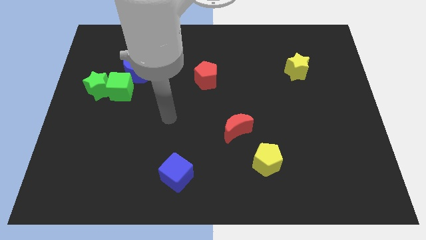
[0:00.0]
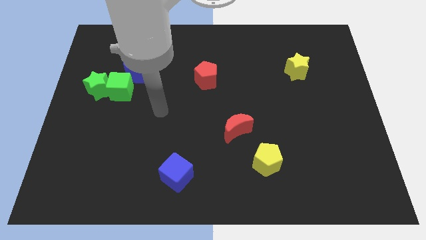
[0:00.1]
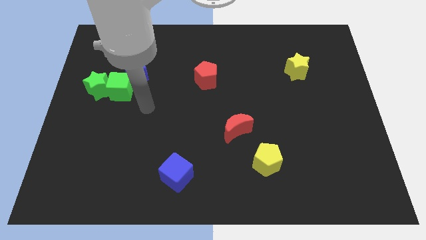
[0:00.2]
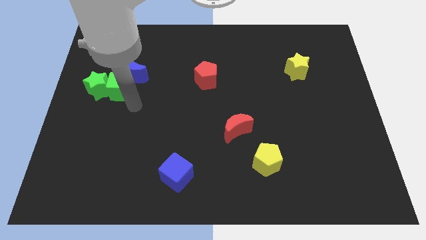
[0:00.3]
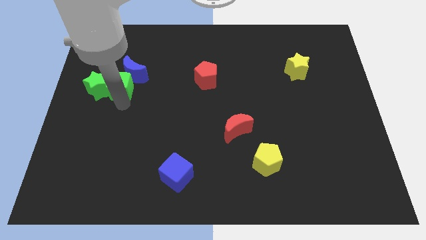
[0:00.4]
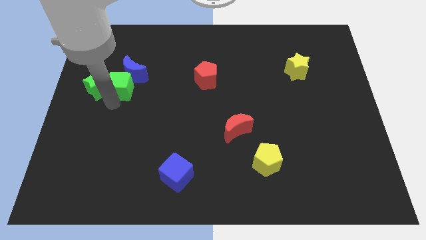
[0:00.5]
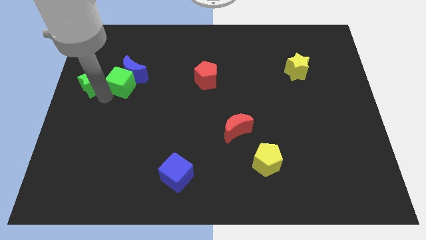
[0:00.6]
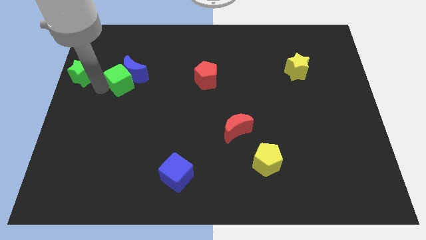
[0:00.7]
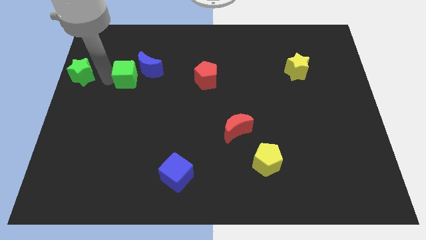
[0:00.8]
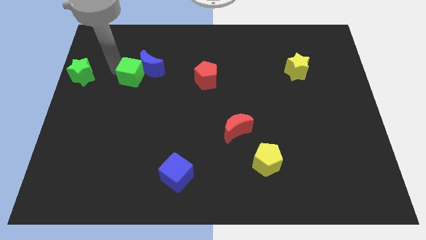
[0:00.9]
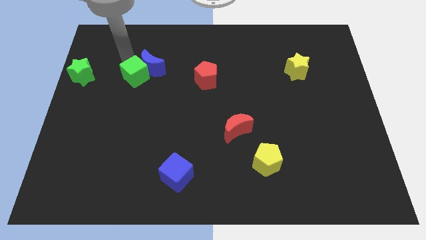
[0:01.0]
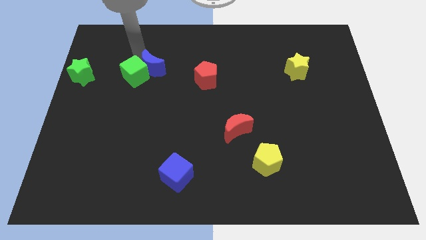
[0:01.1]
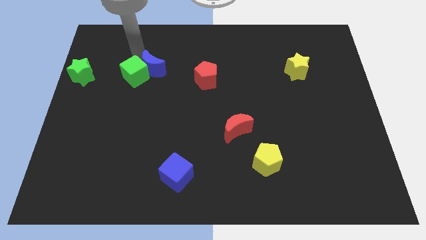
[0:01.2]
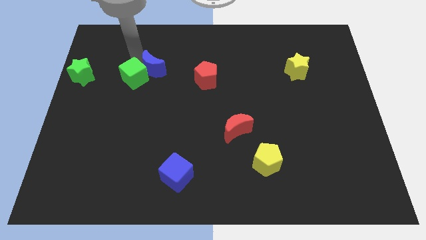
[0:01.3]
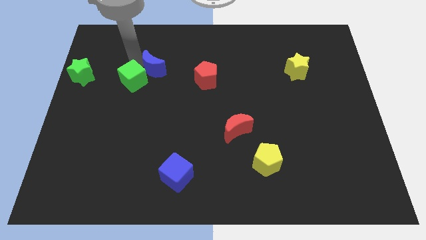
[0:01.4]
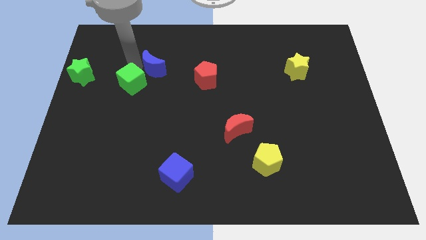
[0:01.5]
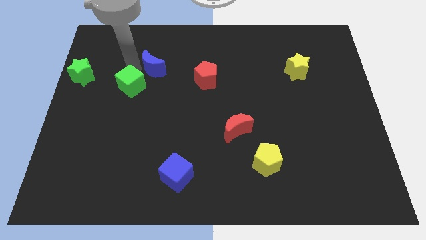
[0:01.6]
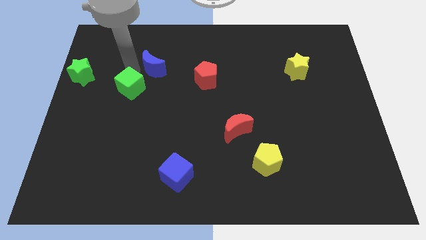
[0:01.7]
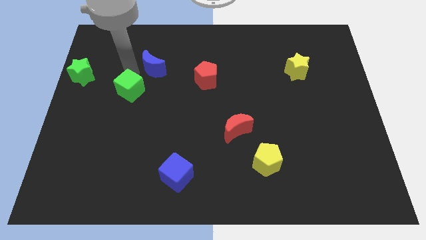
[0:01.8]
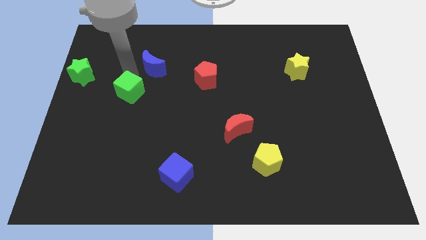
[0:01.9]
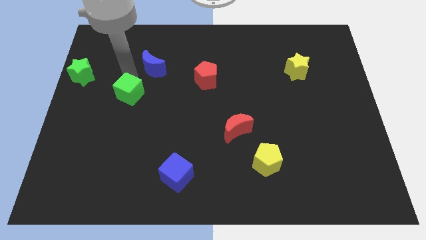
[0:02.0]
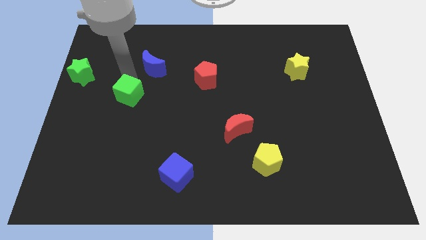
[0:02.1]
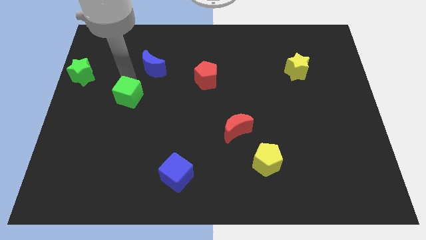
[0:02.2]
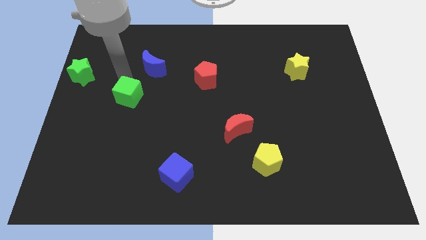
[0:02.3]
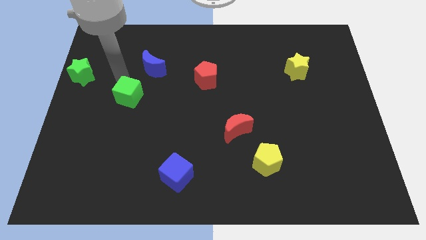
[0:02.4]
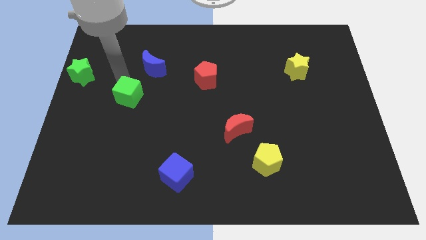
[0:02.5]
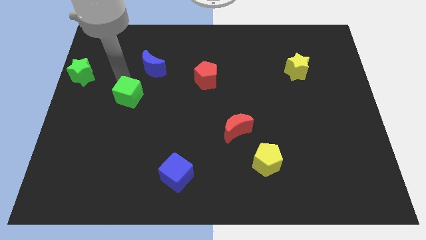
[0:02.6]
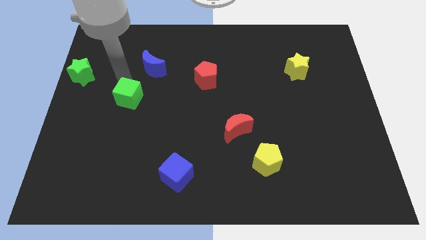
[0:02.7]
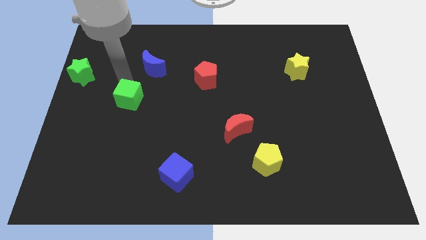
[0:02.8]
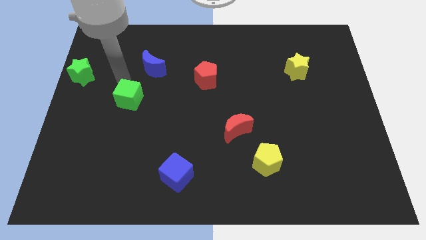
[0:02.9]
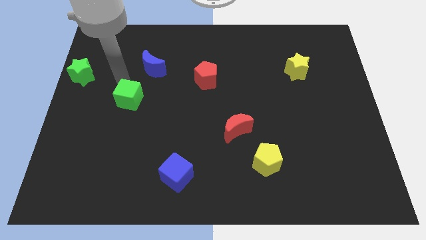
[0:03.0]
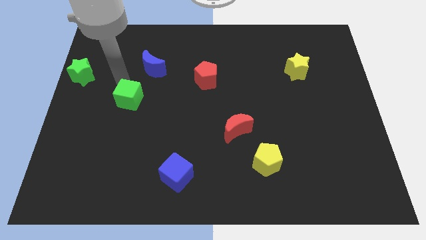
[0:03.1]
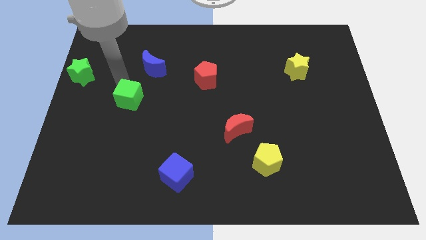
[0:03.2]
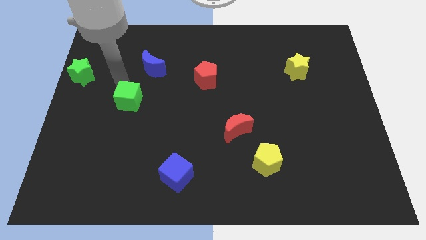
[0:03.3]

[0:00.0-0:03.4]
pull the green cube apart from the green star and blue moon

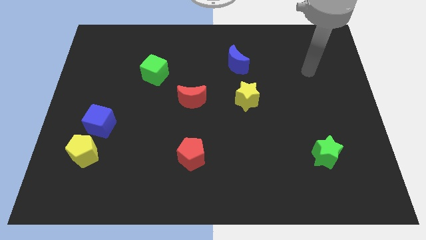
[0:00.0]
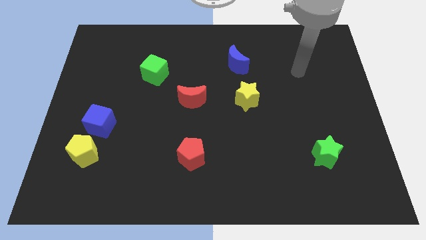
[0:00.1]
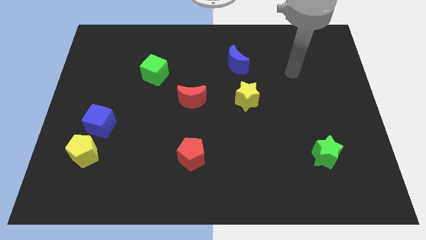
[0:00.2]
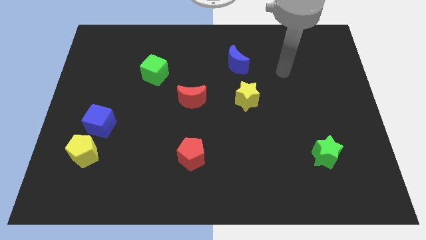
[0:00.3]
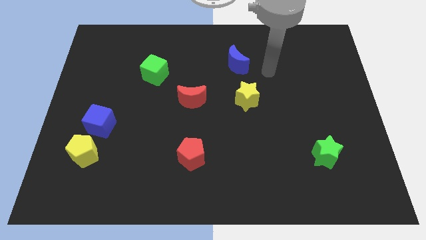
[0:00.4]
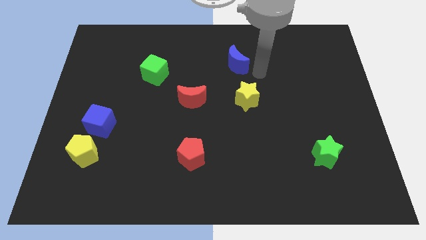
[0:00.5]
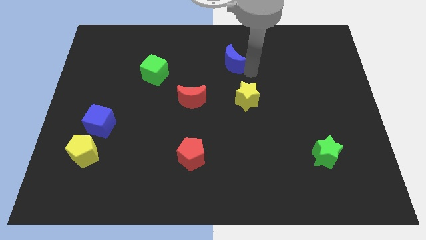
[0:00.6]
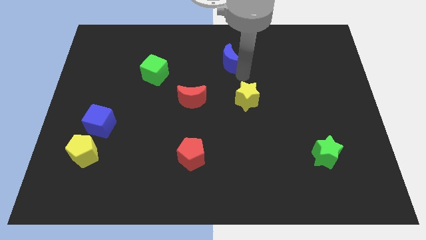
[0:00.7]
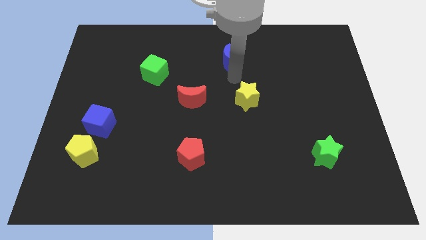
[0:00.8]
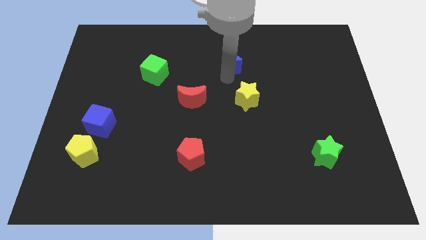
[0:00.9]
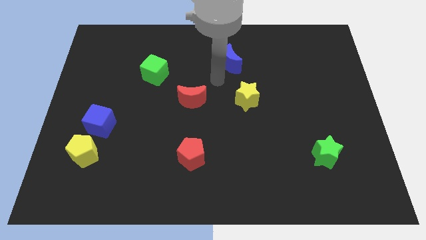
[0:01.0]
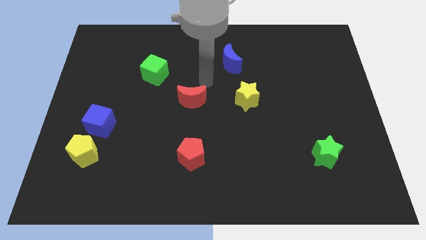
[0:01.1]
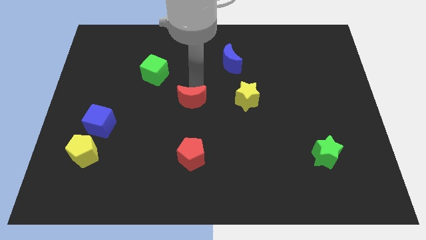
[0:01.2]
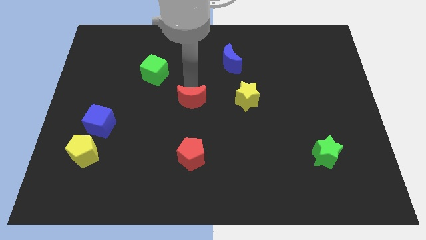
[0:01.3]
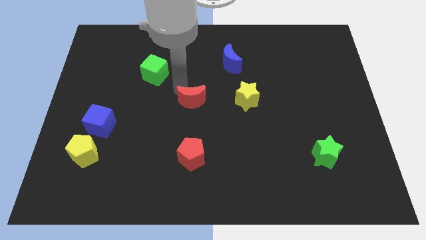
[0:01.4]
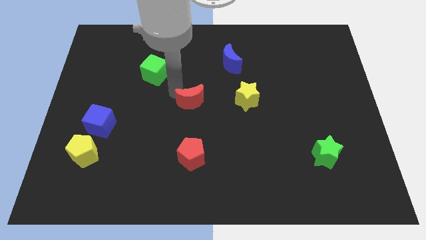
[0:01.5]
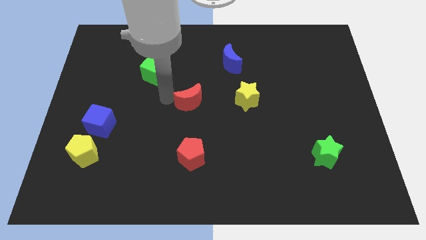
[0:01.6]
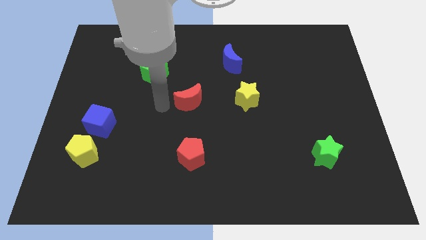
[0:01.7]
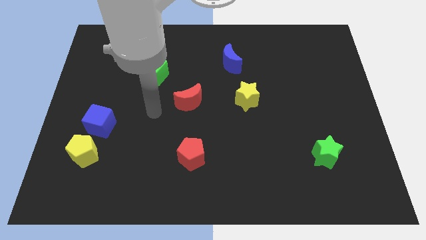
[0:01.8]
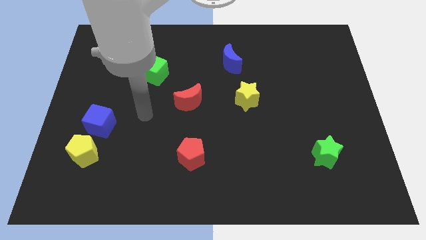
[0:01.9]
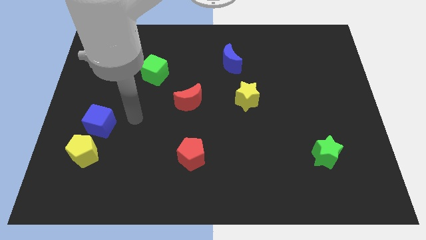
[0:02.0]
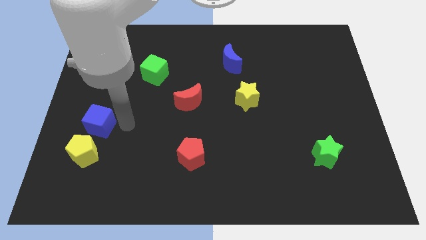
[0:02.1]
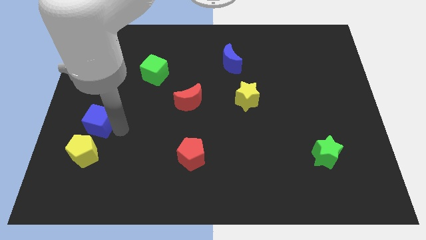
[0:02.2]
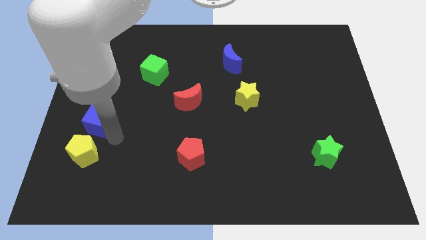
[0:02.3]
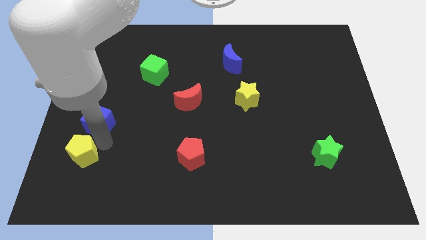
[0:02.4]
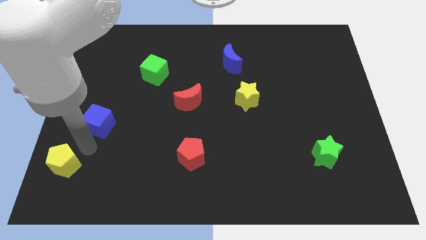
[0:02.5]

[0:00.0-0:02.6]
move the blue cube away from the yellow pentagon

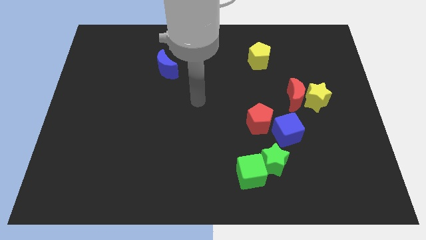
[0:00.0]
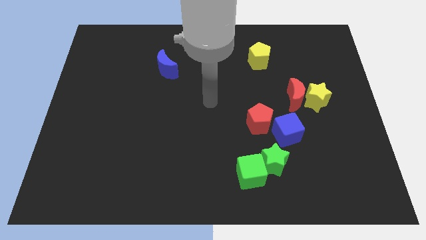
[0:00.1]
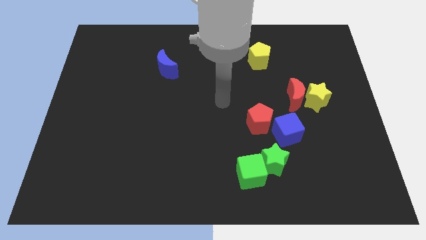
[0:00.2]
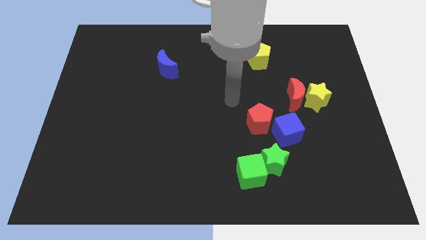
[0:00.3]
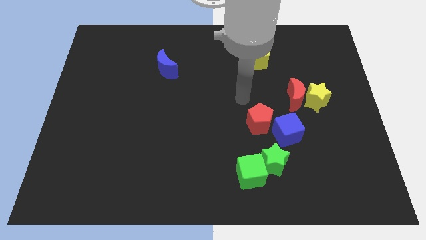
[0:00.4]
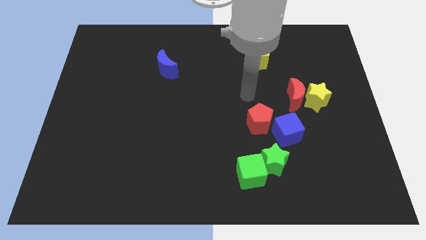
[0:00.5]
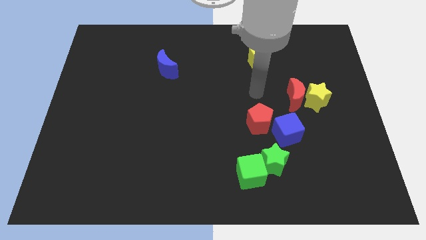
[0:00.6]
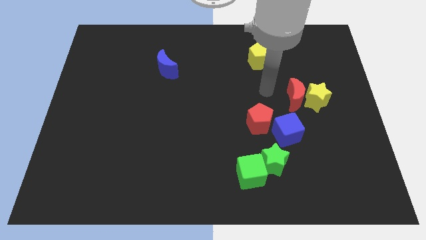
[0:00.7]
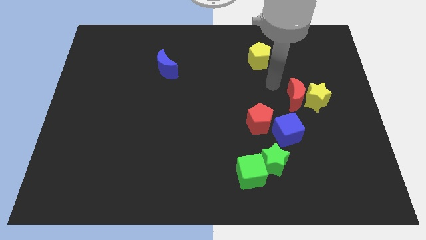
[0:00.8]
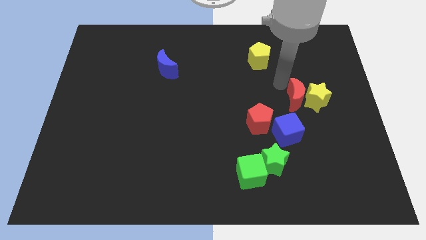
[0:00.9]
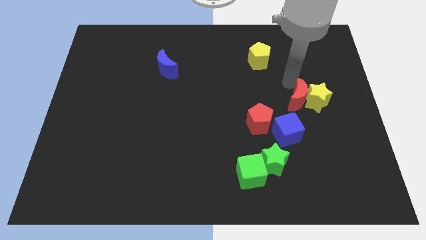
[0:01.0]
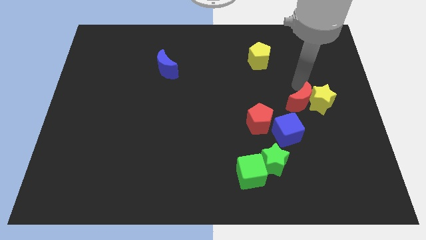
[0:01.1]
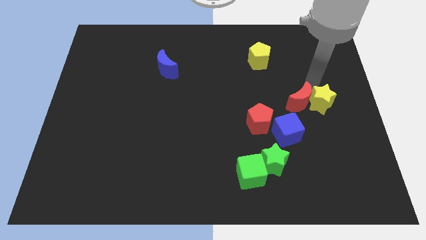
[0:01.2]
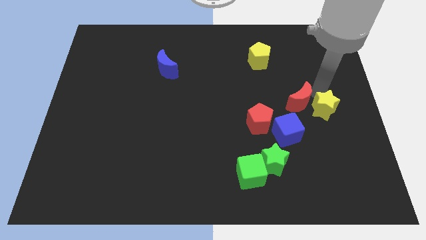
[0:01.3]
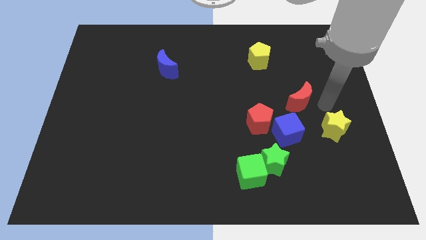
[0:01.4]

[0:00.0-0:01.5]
pull the red moon apart from the yellow star

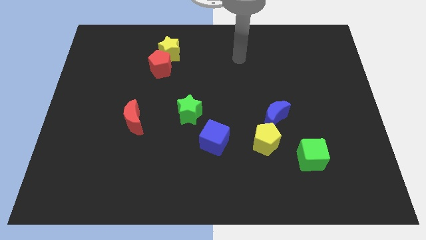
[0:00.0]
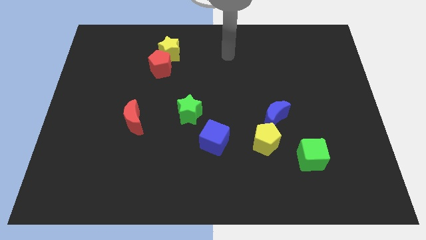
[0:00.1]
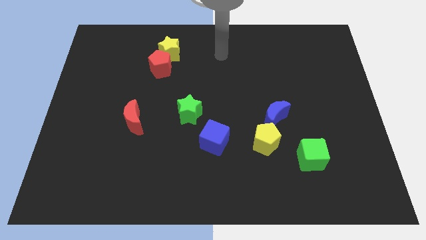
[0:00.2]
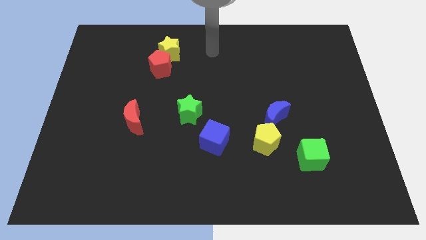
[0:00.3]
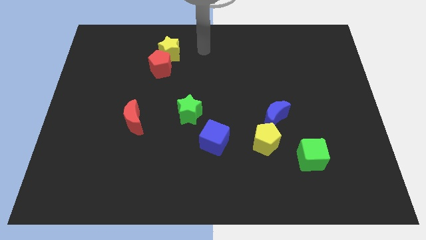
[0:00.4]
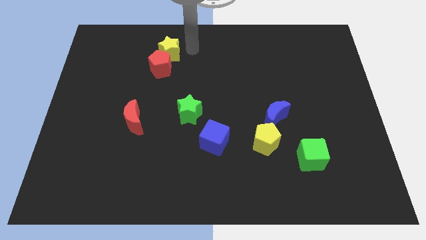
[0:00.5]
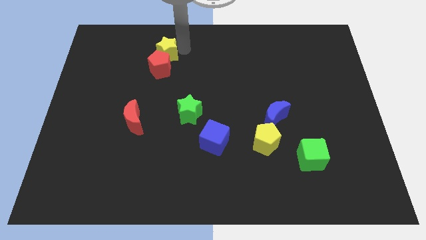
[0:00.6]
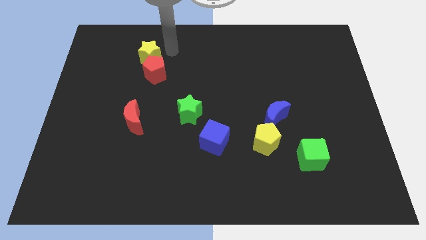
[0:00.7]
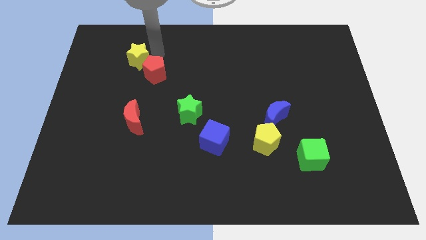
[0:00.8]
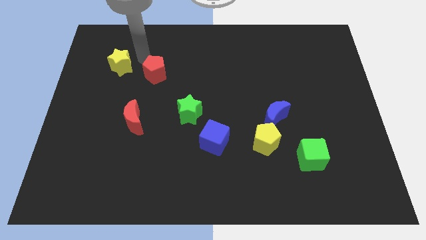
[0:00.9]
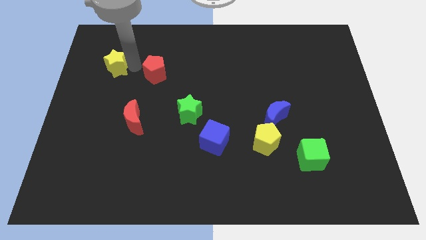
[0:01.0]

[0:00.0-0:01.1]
move the red pentagon away from the yellow star

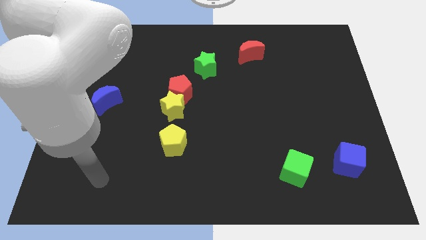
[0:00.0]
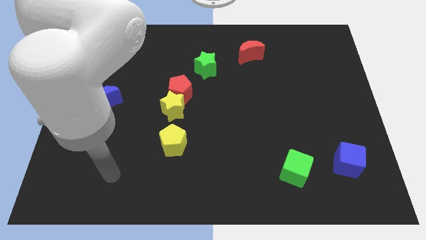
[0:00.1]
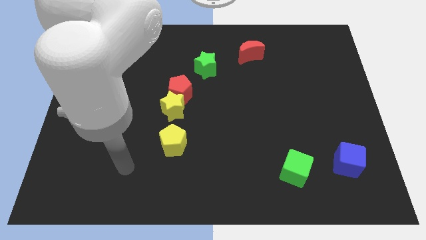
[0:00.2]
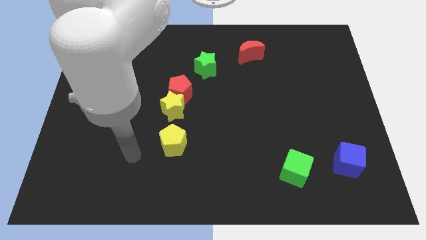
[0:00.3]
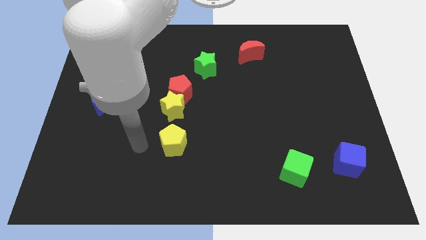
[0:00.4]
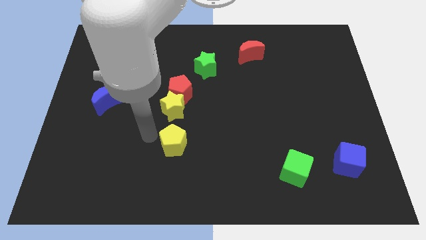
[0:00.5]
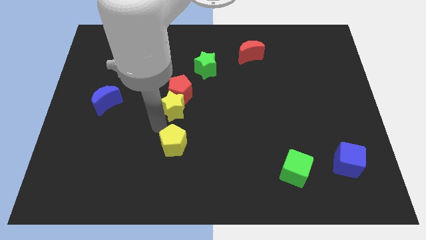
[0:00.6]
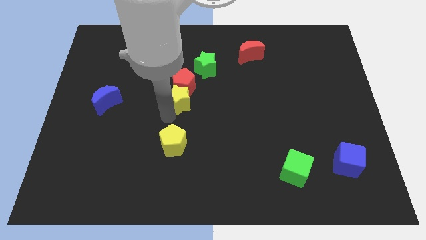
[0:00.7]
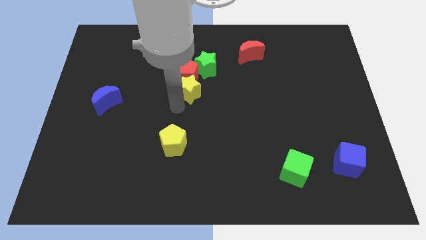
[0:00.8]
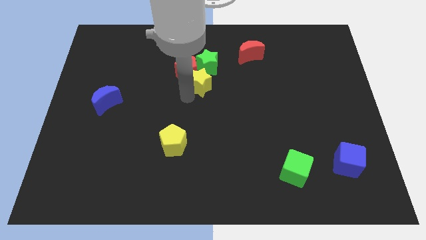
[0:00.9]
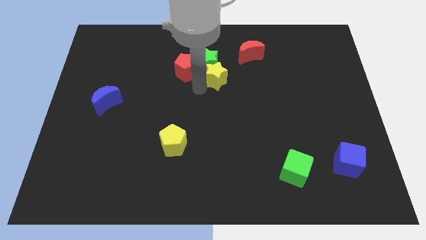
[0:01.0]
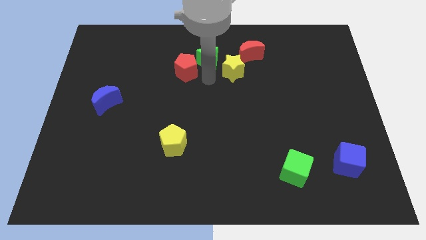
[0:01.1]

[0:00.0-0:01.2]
separate the red pentagon from the yellow star
